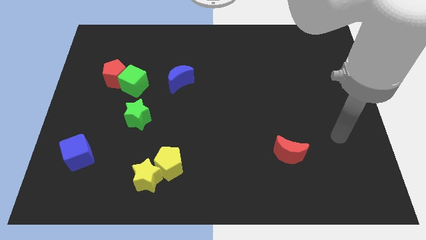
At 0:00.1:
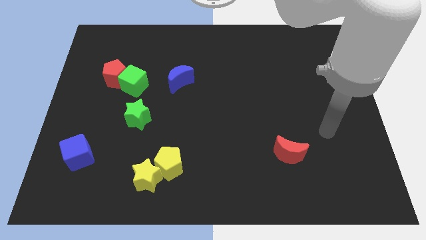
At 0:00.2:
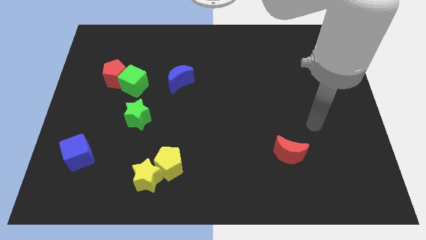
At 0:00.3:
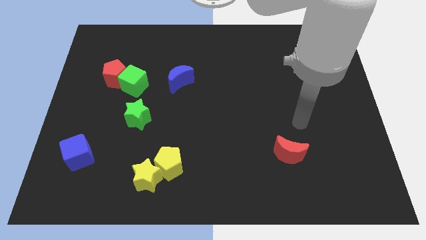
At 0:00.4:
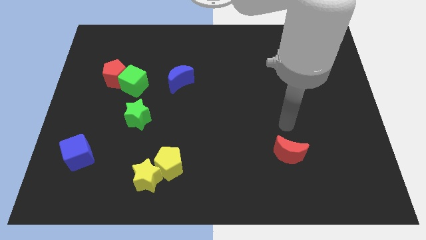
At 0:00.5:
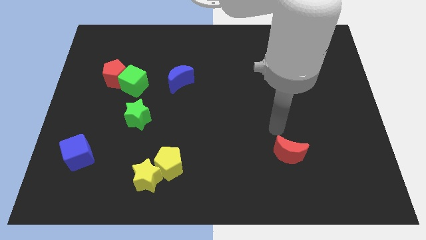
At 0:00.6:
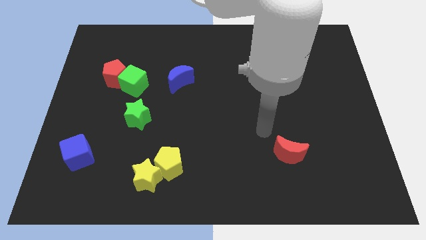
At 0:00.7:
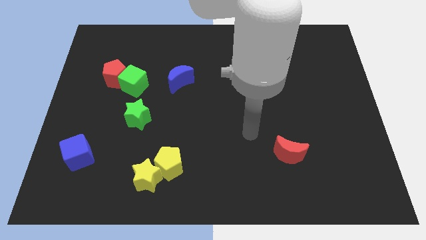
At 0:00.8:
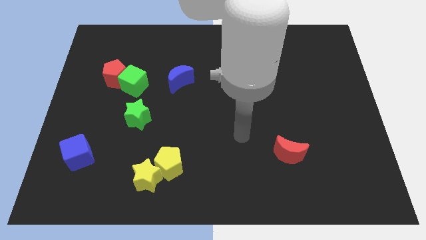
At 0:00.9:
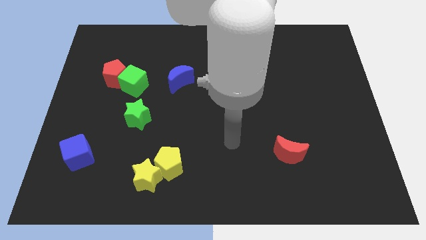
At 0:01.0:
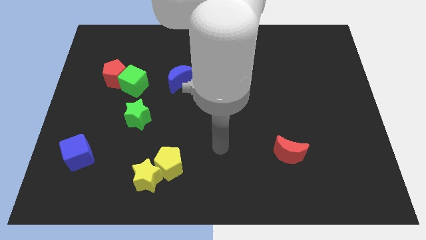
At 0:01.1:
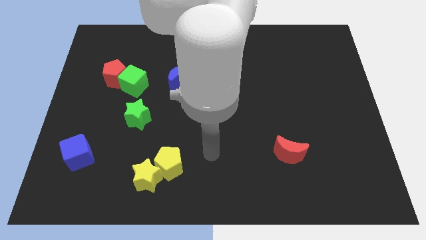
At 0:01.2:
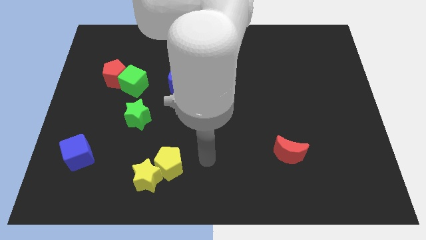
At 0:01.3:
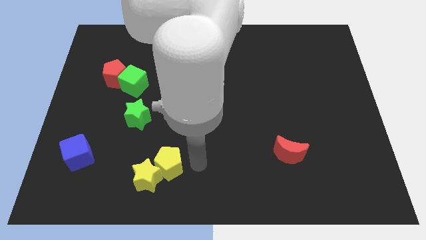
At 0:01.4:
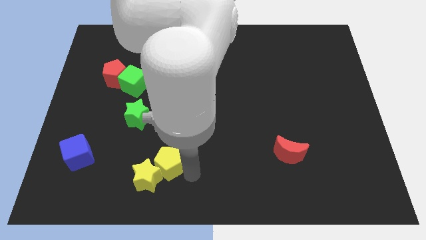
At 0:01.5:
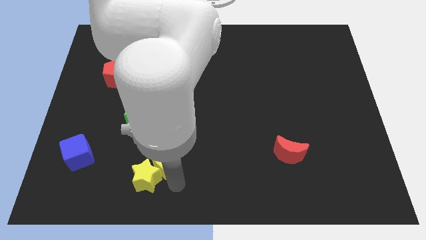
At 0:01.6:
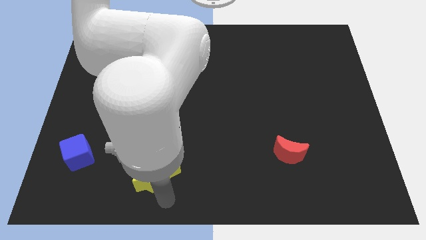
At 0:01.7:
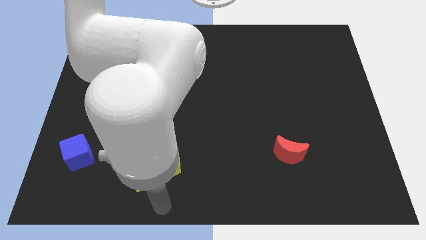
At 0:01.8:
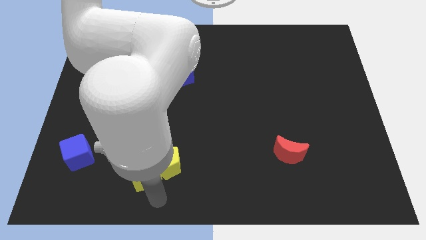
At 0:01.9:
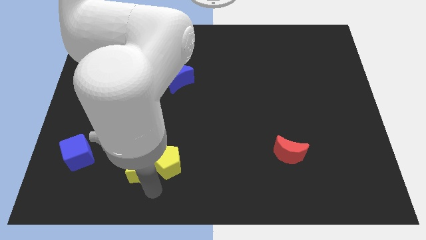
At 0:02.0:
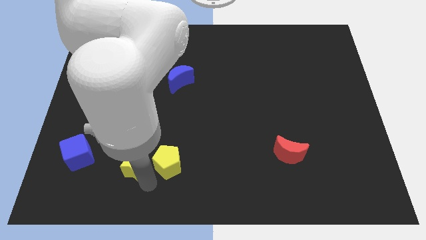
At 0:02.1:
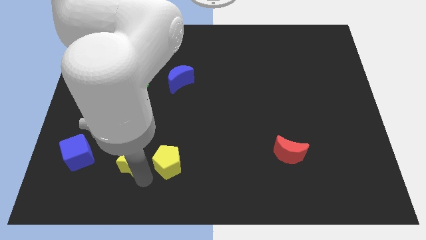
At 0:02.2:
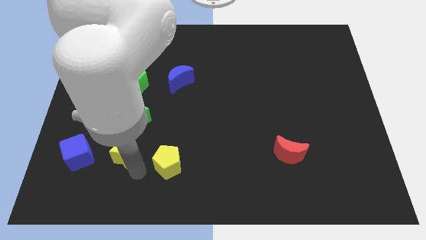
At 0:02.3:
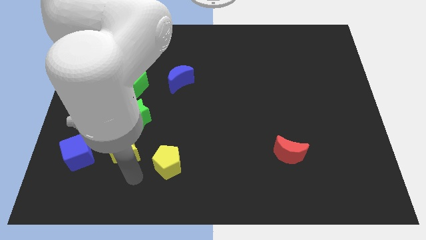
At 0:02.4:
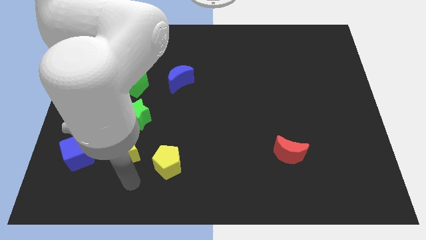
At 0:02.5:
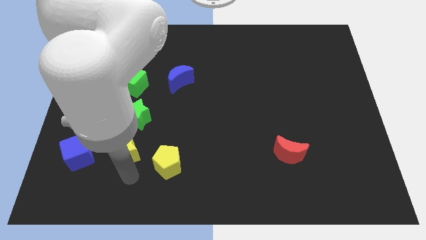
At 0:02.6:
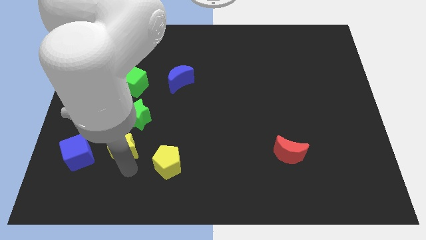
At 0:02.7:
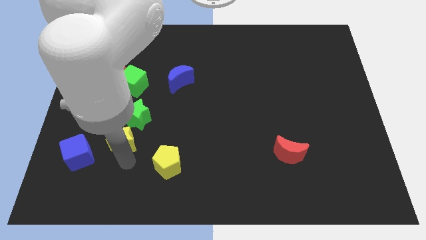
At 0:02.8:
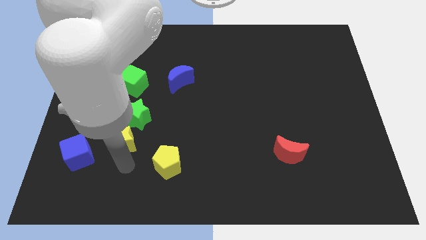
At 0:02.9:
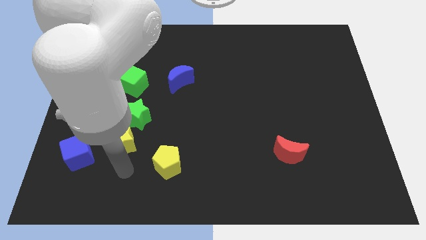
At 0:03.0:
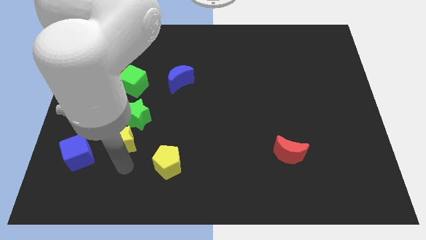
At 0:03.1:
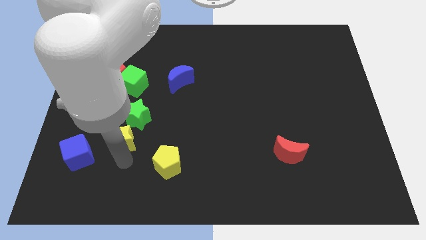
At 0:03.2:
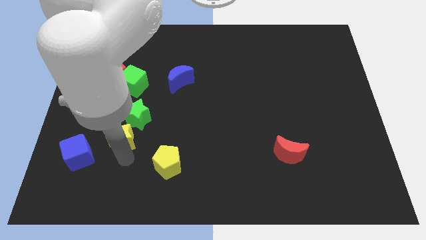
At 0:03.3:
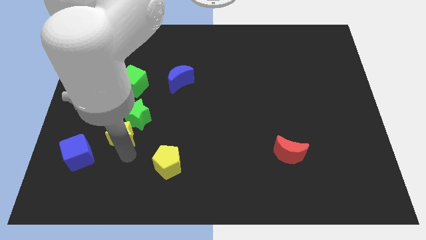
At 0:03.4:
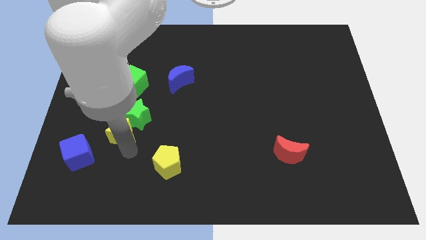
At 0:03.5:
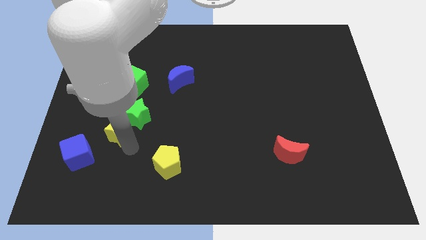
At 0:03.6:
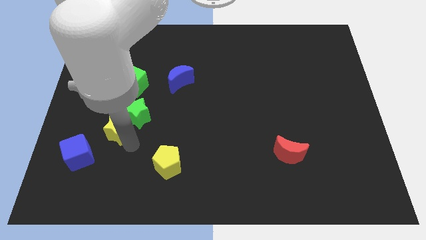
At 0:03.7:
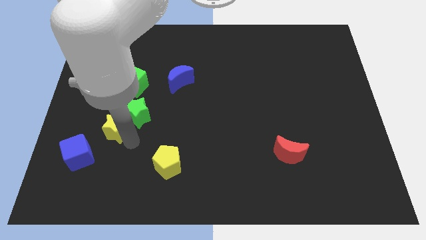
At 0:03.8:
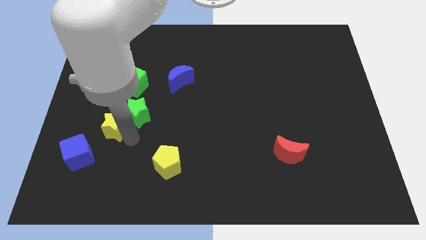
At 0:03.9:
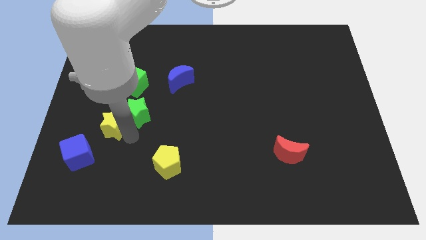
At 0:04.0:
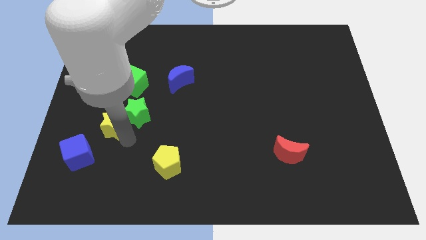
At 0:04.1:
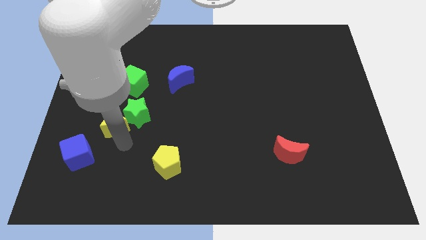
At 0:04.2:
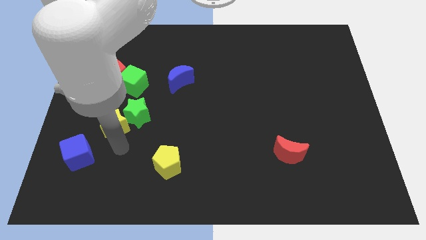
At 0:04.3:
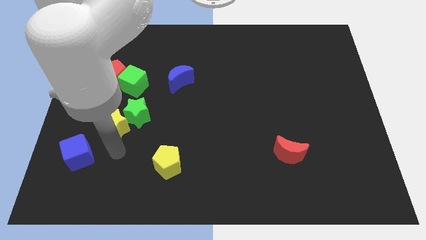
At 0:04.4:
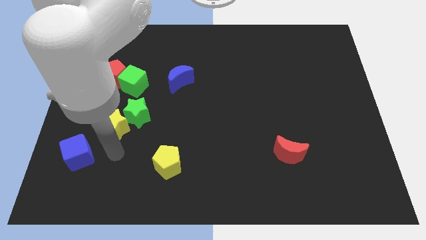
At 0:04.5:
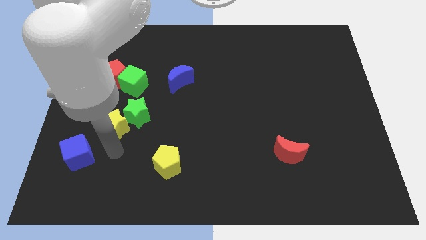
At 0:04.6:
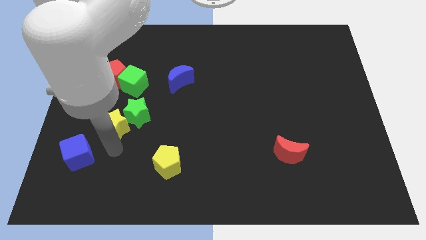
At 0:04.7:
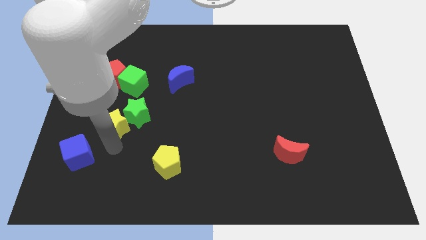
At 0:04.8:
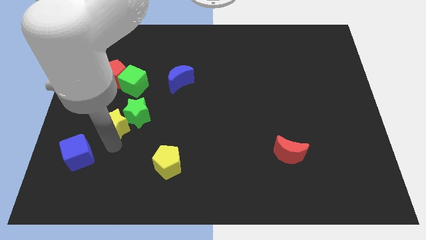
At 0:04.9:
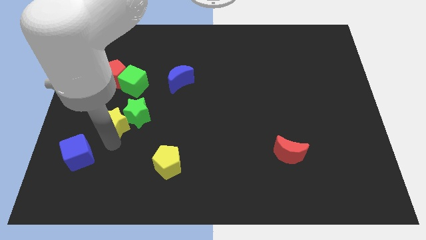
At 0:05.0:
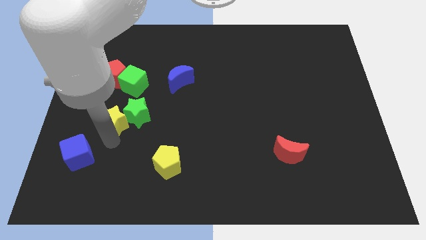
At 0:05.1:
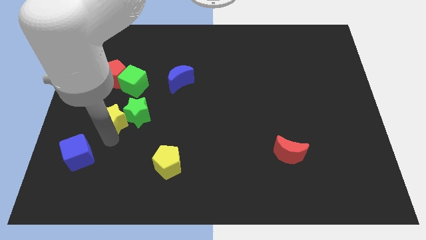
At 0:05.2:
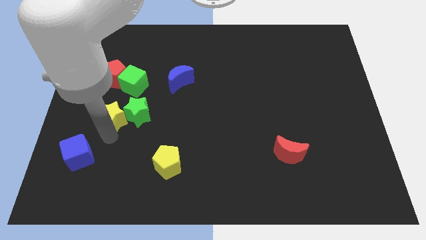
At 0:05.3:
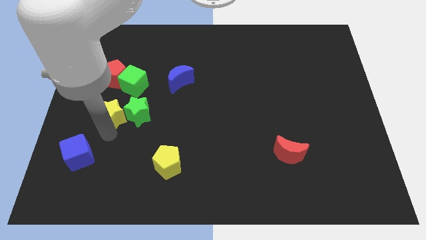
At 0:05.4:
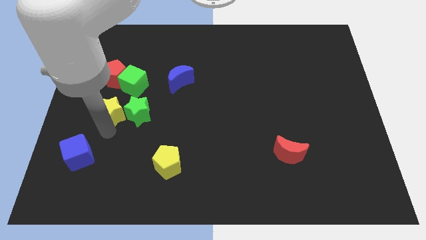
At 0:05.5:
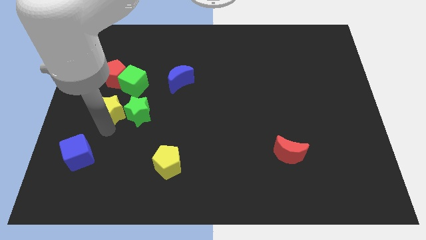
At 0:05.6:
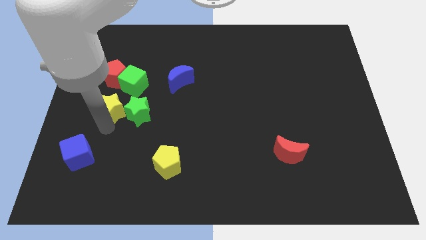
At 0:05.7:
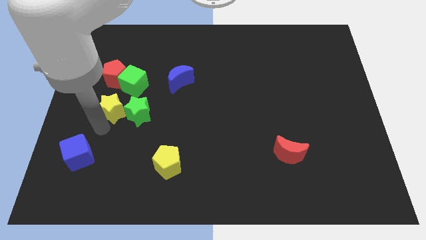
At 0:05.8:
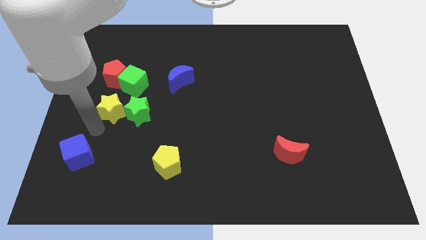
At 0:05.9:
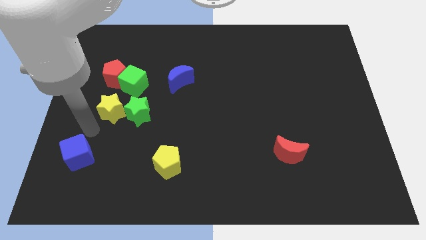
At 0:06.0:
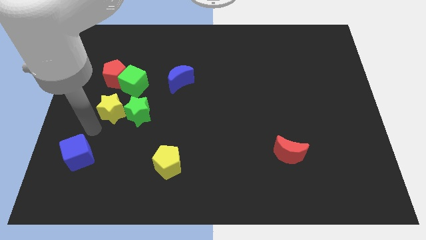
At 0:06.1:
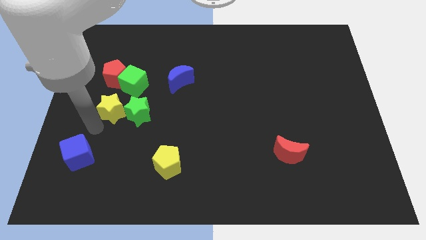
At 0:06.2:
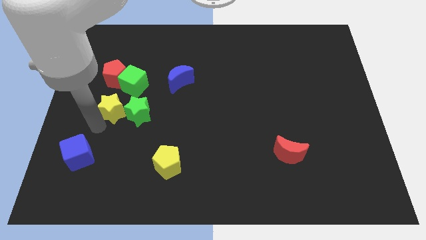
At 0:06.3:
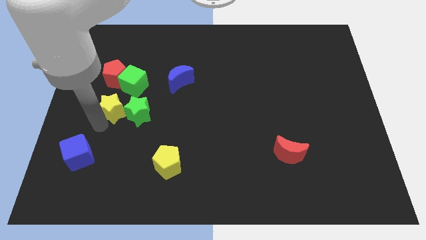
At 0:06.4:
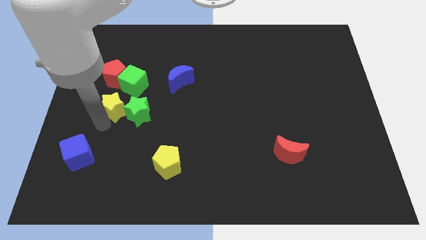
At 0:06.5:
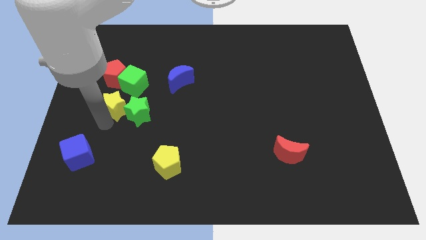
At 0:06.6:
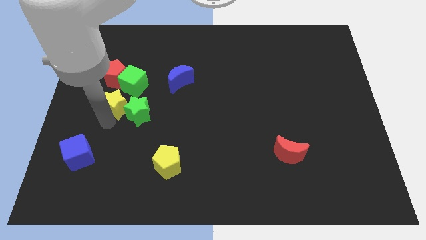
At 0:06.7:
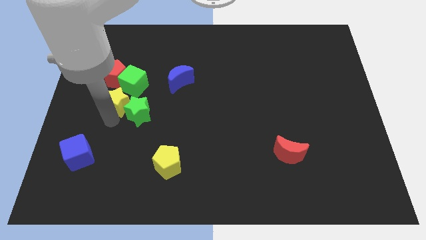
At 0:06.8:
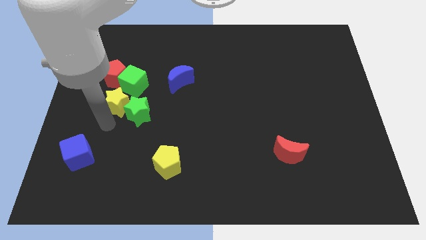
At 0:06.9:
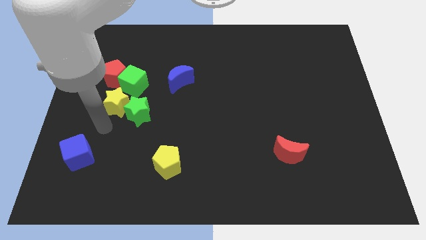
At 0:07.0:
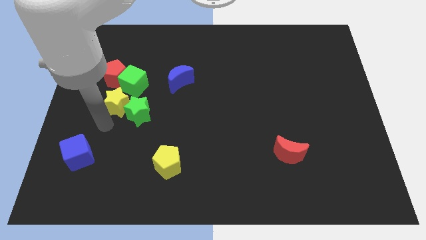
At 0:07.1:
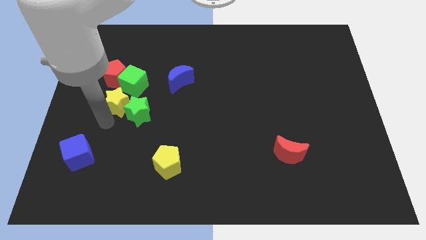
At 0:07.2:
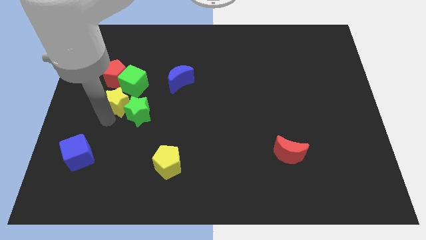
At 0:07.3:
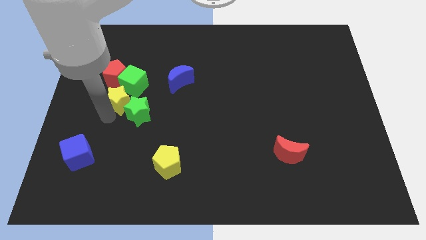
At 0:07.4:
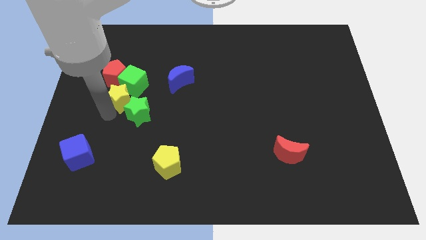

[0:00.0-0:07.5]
put the yellow star close to the green cube

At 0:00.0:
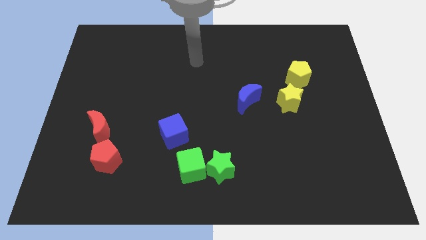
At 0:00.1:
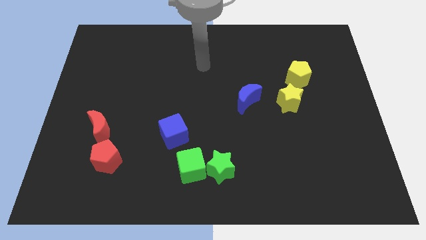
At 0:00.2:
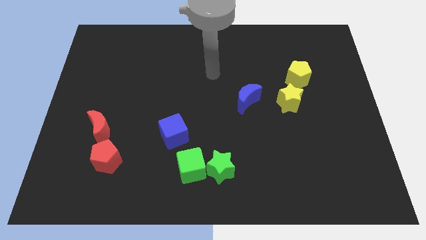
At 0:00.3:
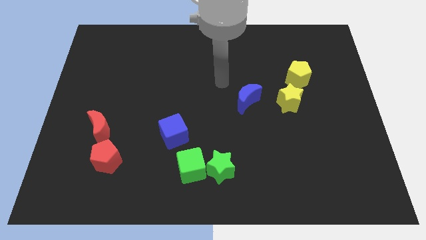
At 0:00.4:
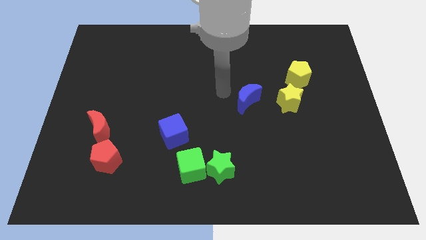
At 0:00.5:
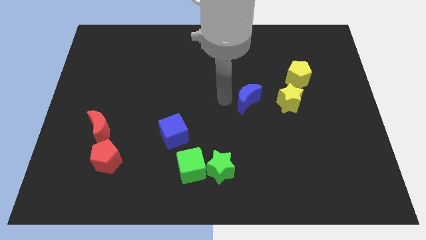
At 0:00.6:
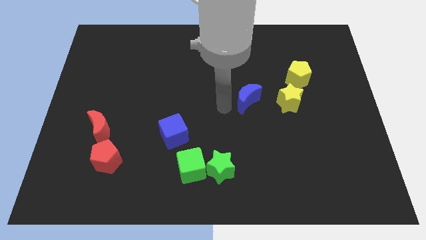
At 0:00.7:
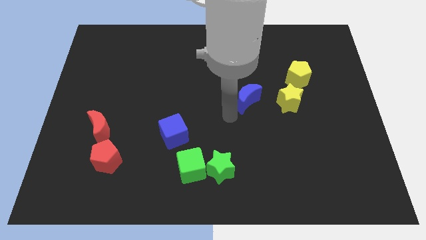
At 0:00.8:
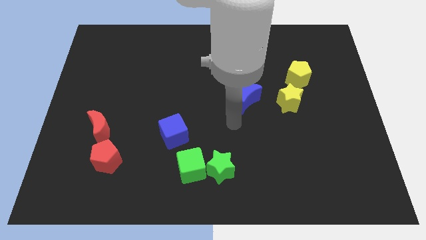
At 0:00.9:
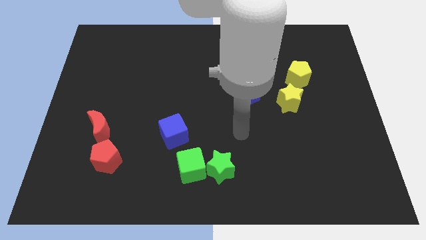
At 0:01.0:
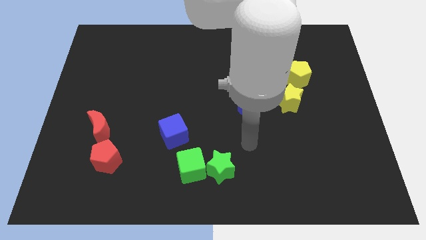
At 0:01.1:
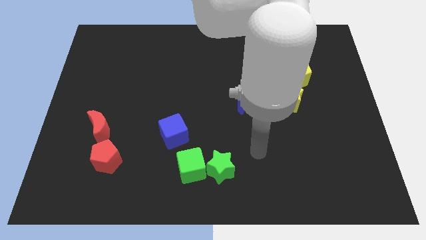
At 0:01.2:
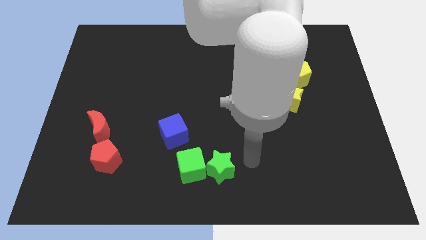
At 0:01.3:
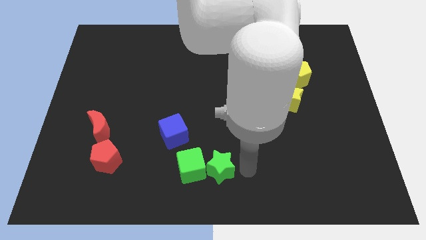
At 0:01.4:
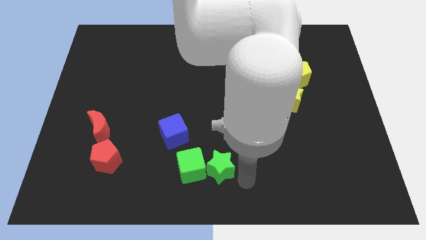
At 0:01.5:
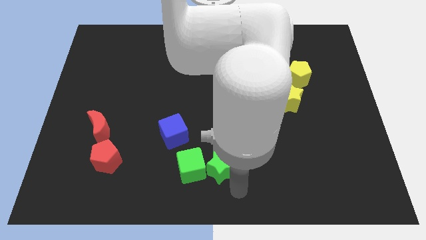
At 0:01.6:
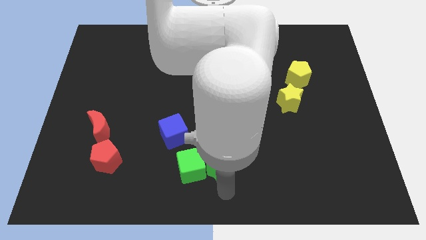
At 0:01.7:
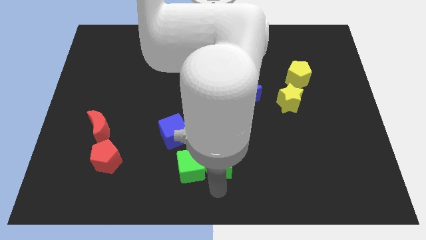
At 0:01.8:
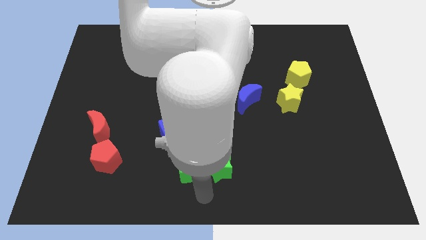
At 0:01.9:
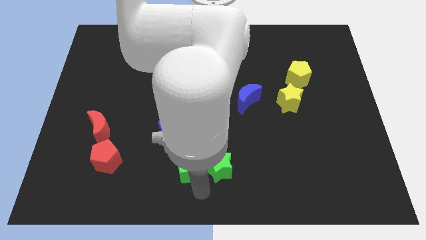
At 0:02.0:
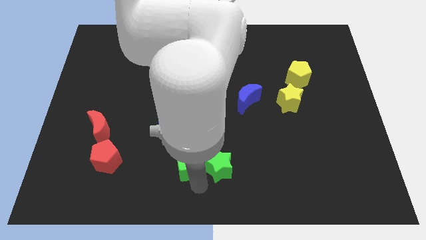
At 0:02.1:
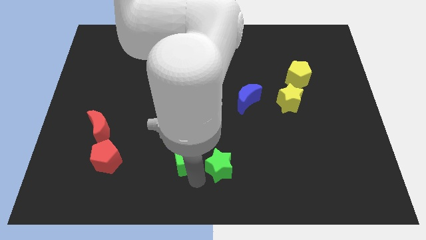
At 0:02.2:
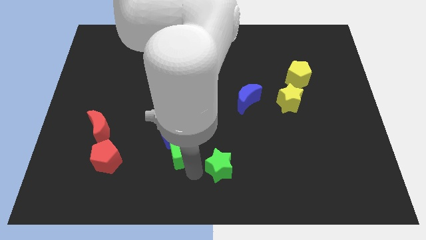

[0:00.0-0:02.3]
push the green cube next to the blue cube
